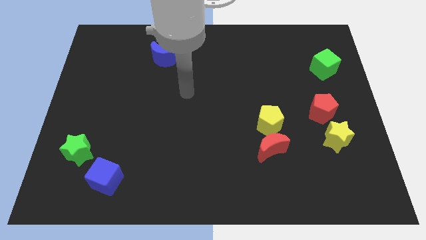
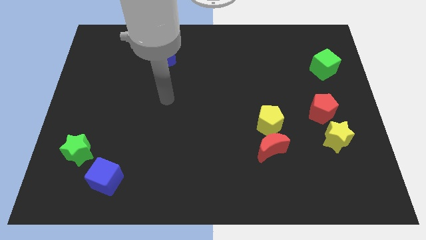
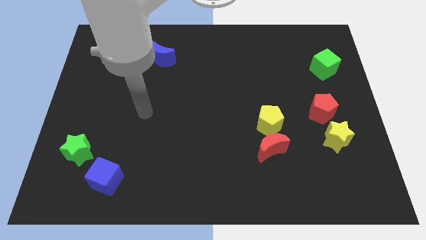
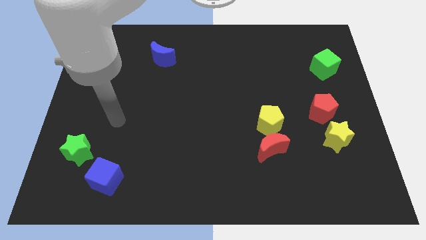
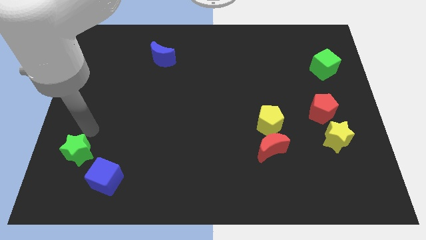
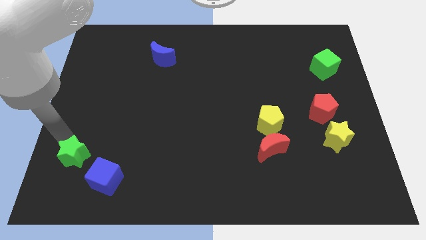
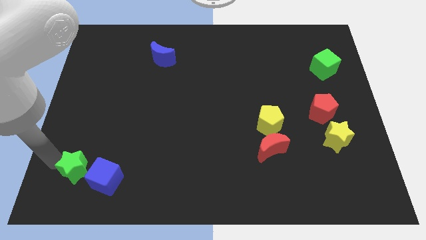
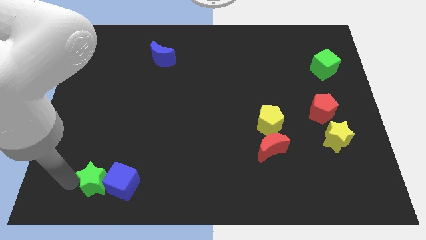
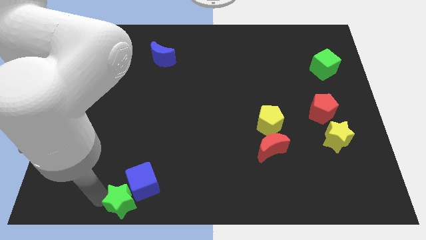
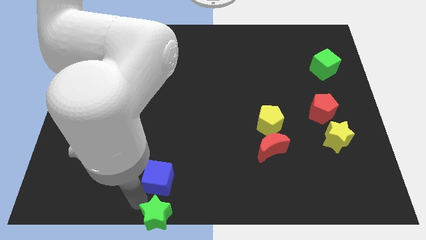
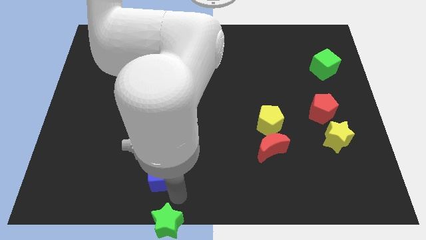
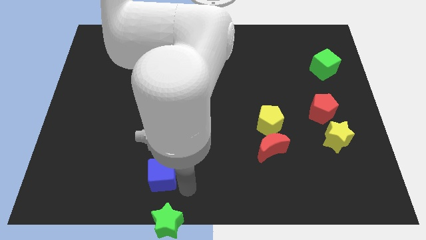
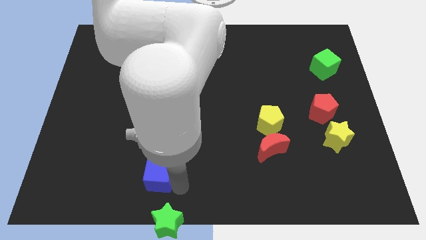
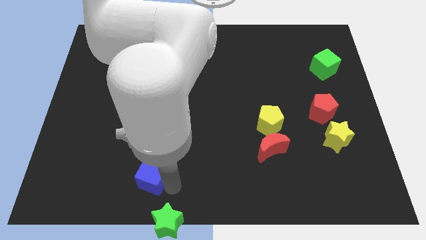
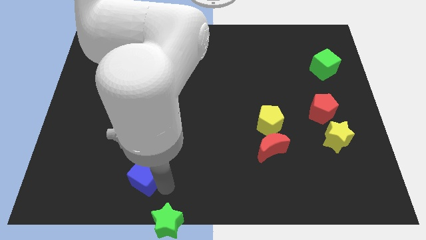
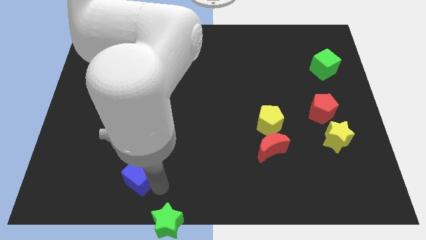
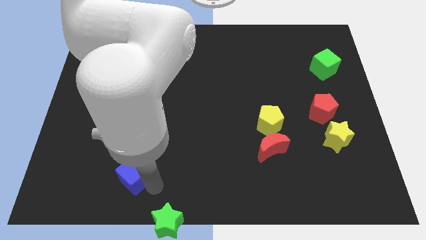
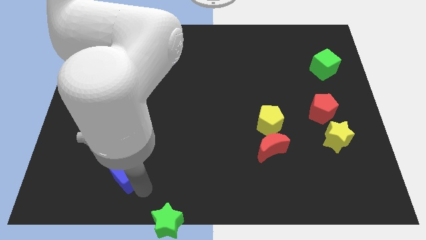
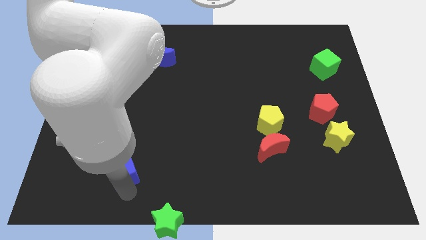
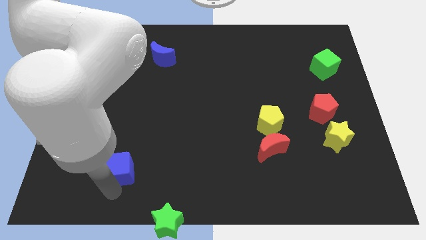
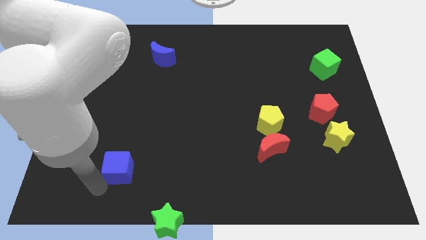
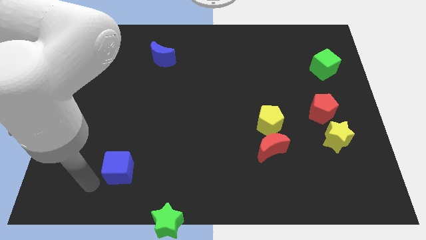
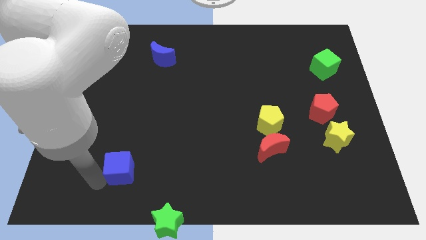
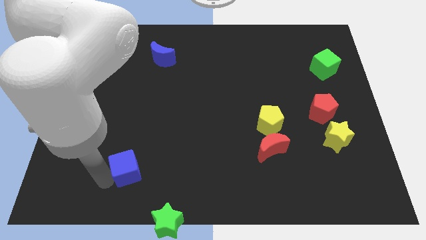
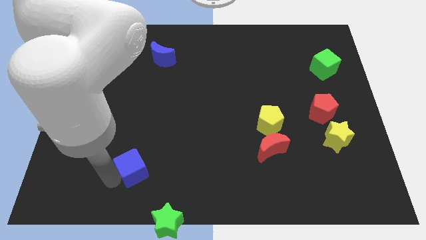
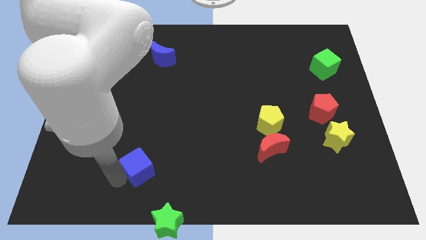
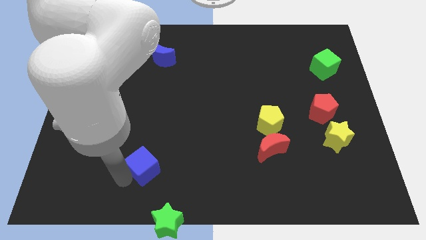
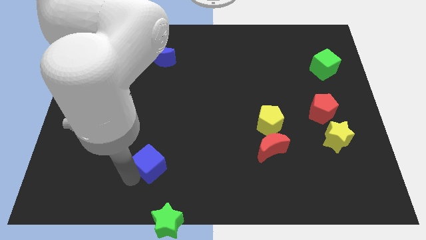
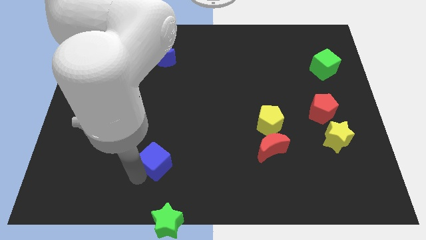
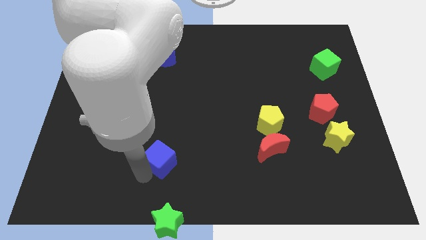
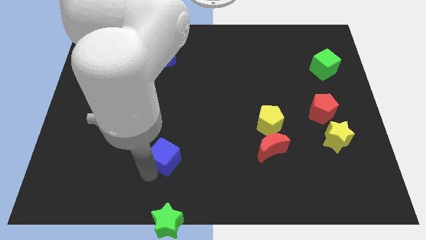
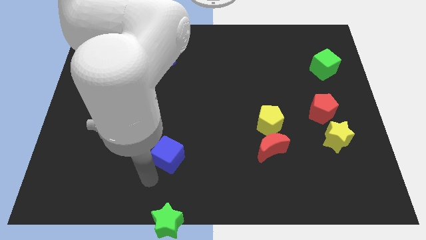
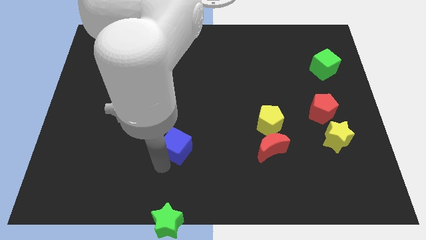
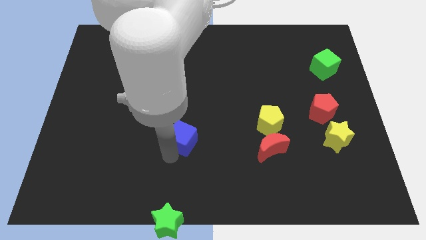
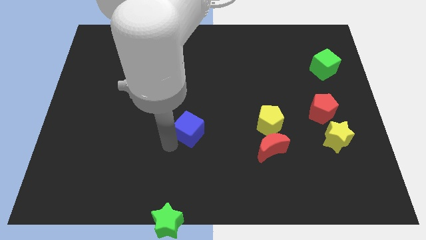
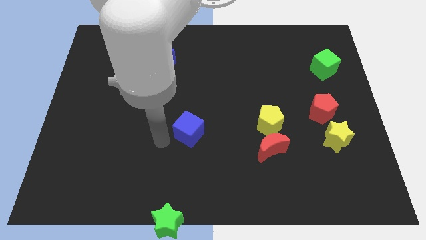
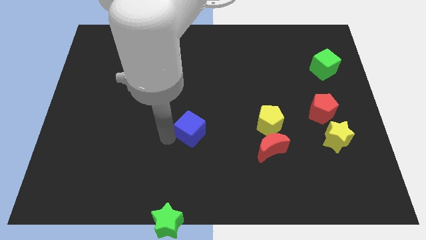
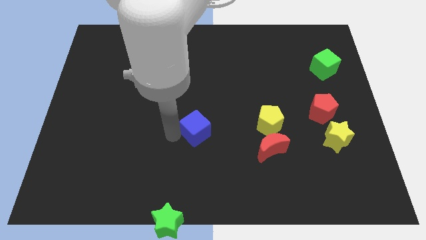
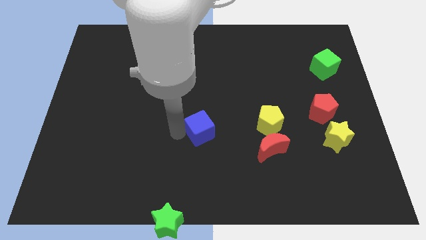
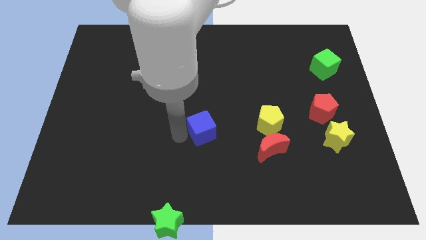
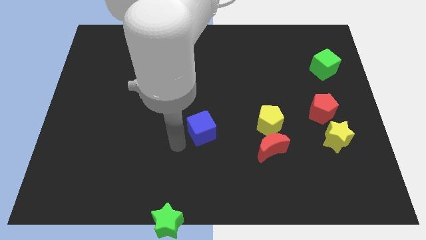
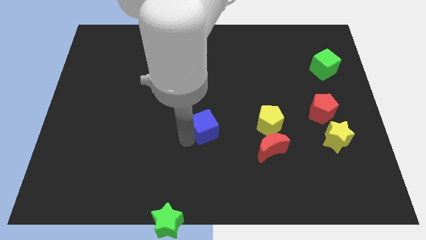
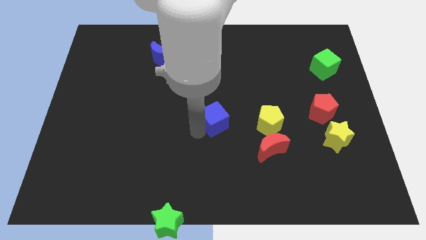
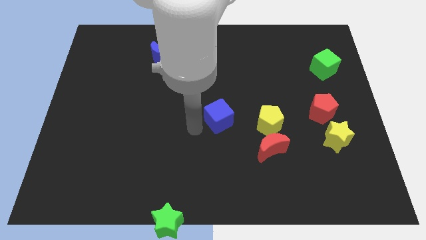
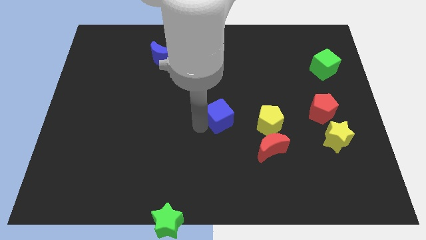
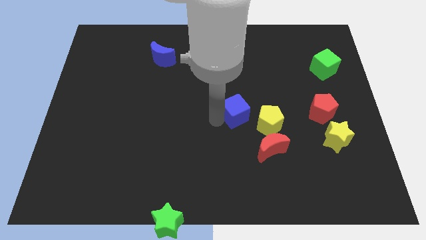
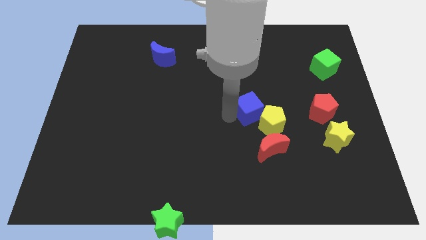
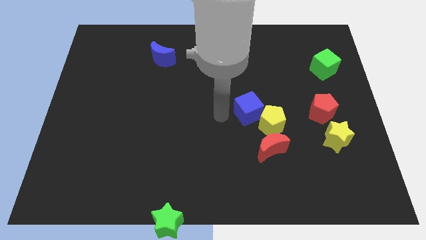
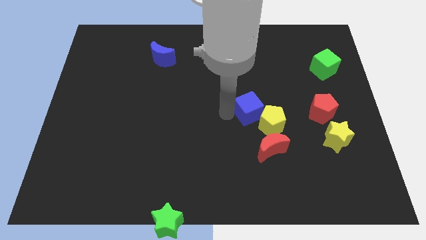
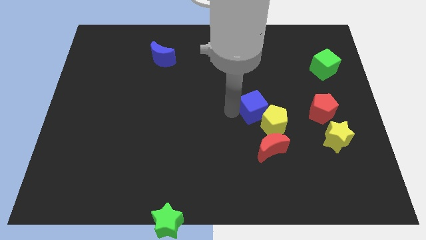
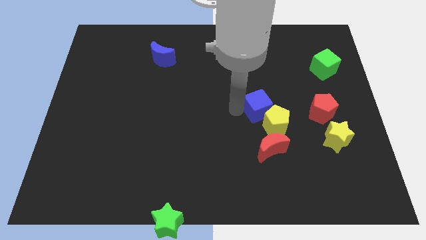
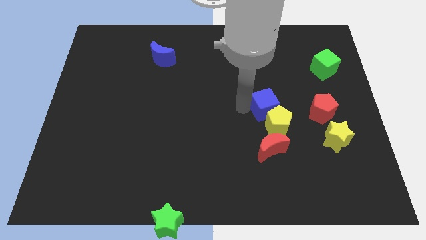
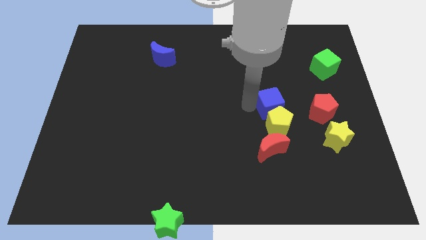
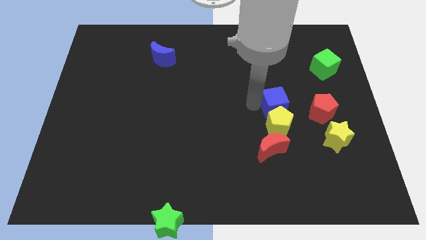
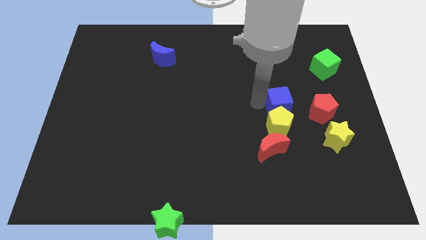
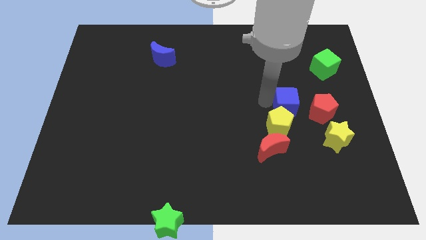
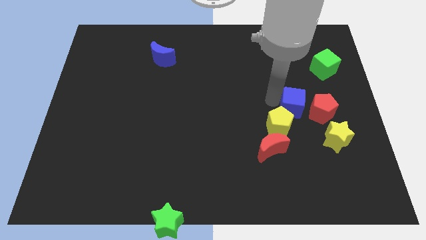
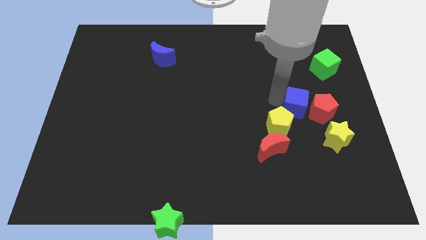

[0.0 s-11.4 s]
put the blue cube towards the red pentagon
